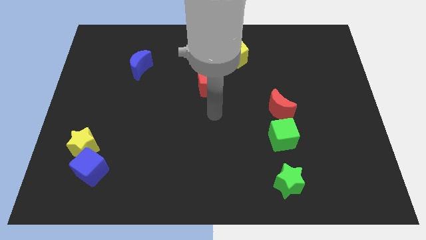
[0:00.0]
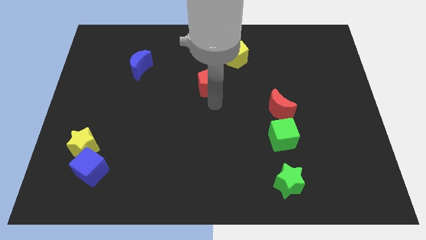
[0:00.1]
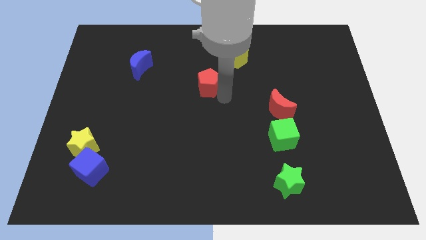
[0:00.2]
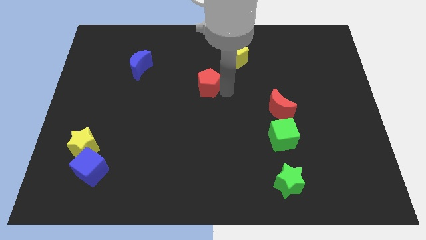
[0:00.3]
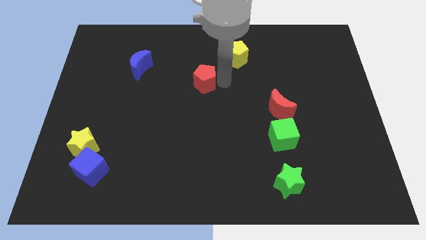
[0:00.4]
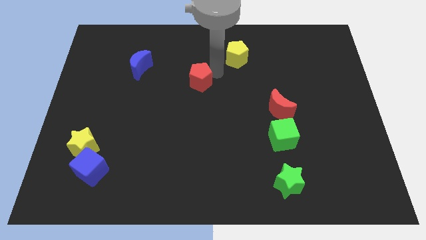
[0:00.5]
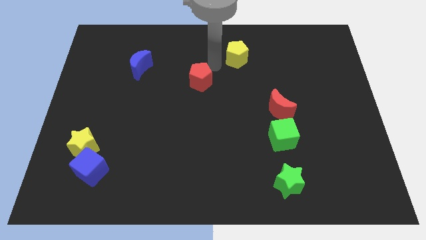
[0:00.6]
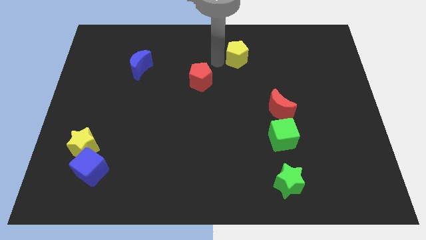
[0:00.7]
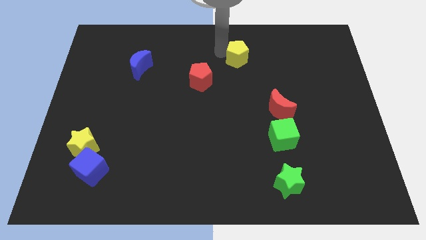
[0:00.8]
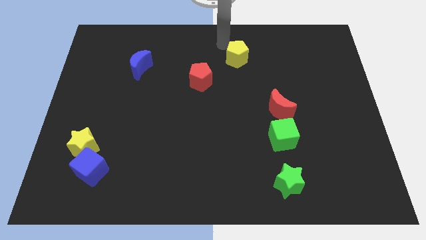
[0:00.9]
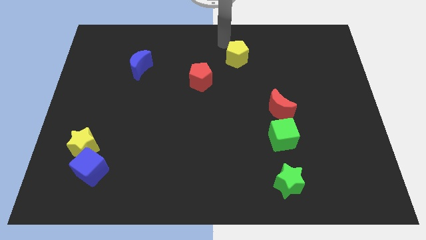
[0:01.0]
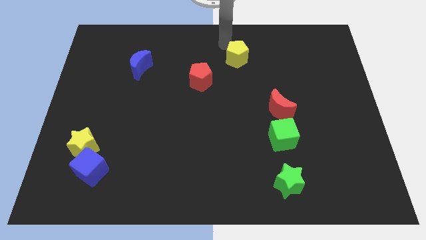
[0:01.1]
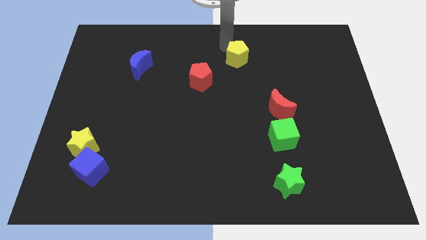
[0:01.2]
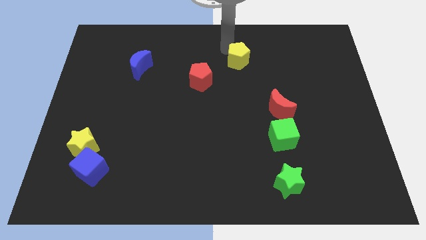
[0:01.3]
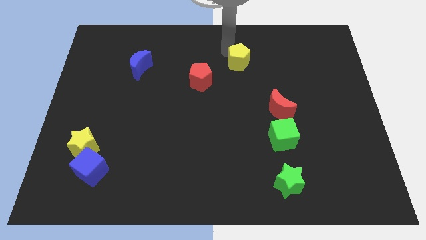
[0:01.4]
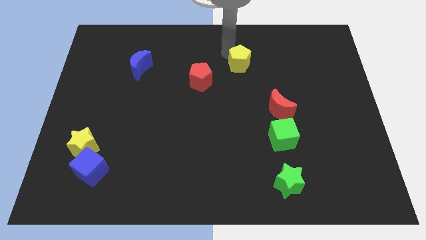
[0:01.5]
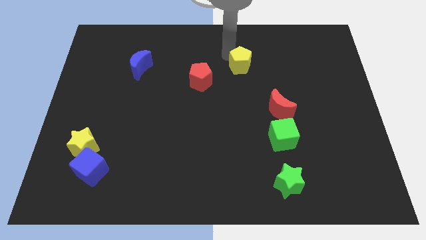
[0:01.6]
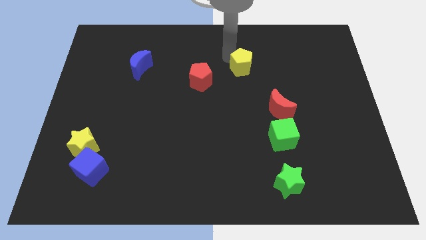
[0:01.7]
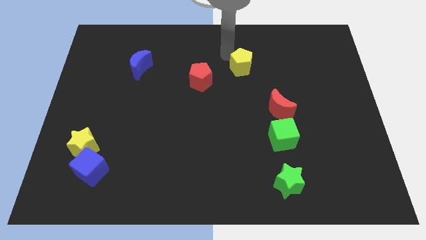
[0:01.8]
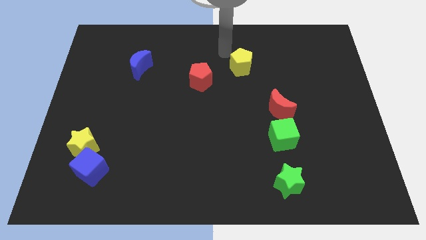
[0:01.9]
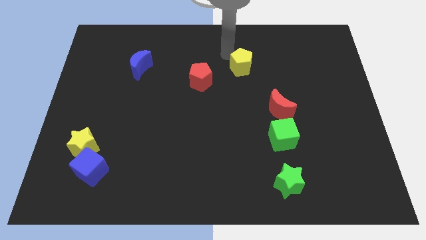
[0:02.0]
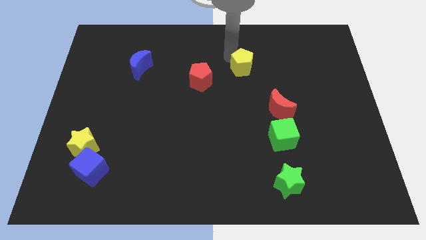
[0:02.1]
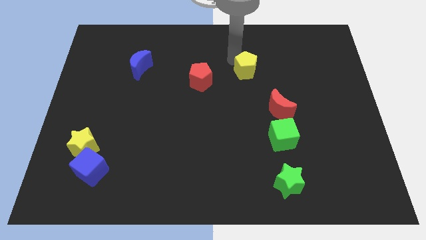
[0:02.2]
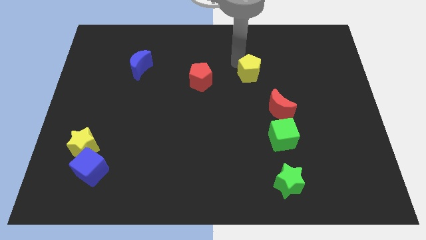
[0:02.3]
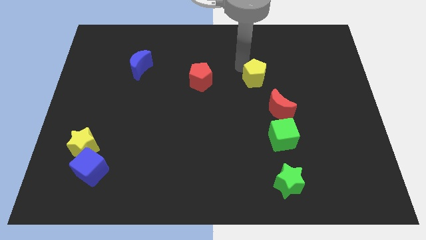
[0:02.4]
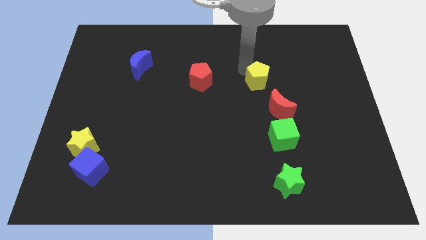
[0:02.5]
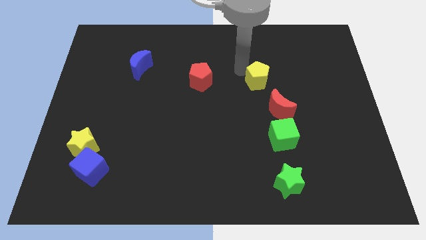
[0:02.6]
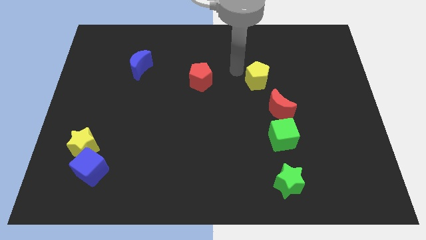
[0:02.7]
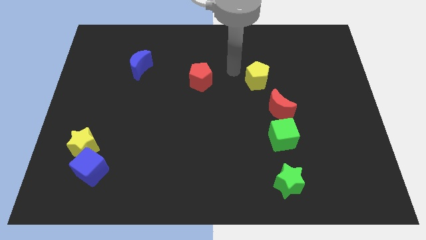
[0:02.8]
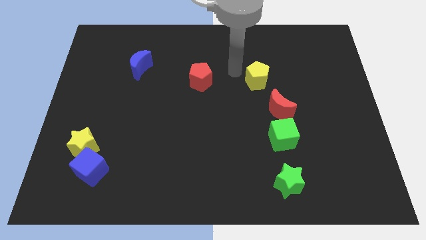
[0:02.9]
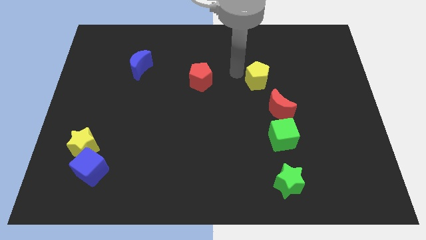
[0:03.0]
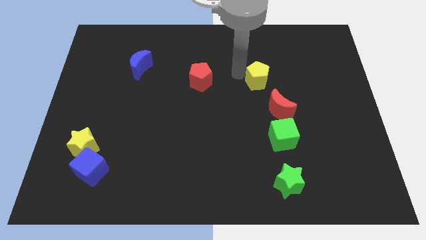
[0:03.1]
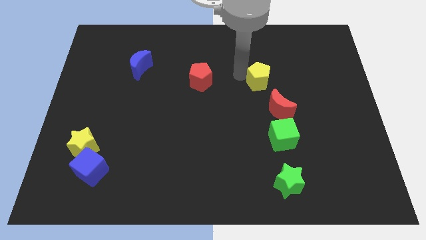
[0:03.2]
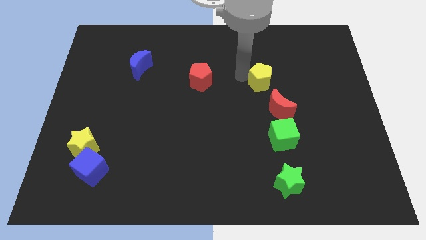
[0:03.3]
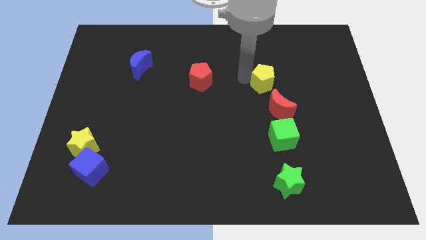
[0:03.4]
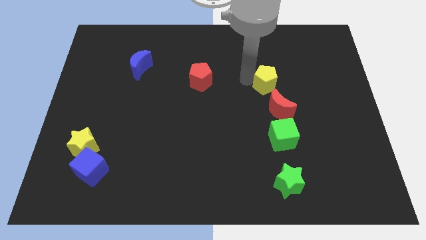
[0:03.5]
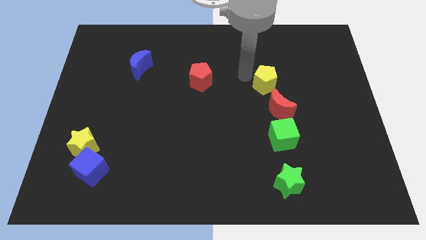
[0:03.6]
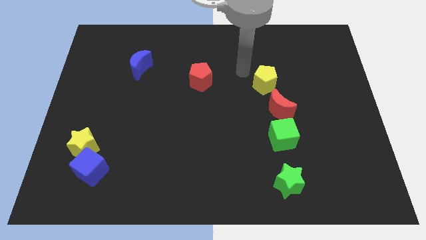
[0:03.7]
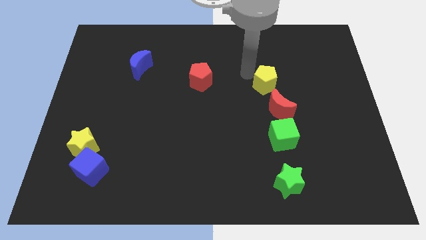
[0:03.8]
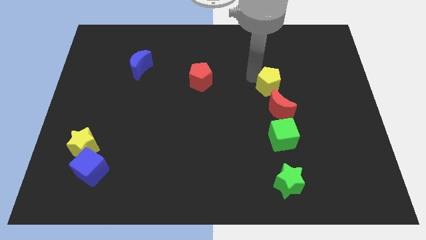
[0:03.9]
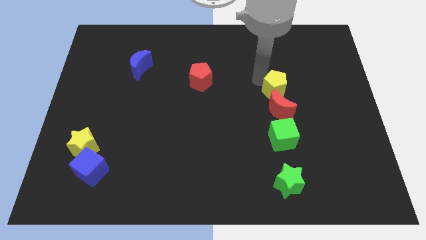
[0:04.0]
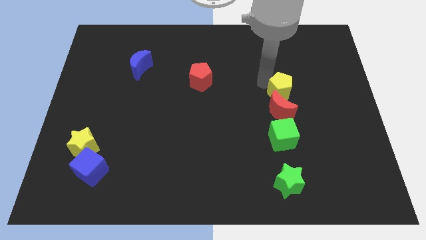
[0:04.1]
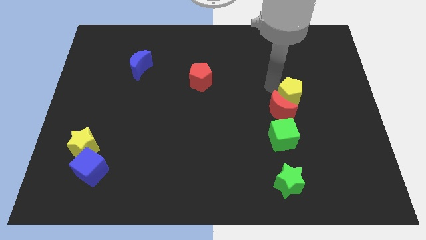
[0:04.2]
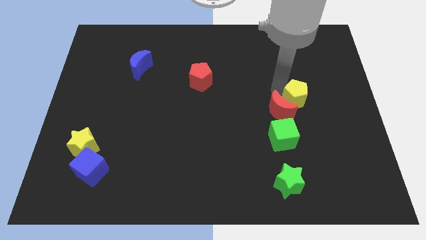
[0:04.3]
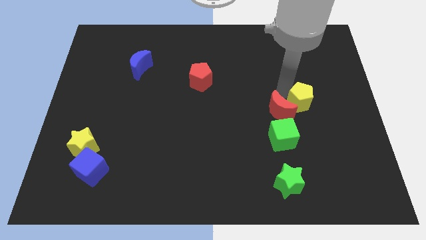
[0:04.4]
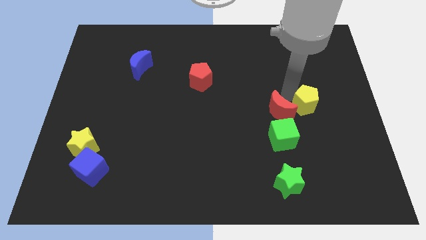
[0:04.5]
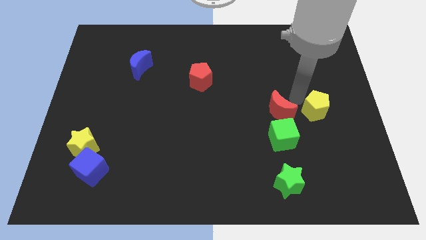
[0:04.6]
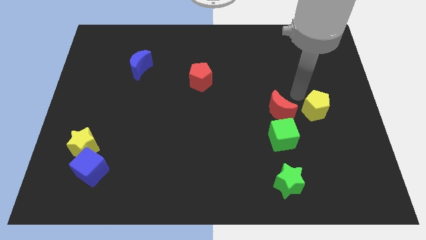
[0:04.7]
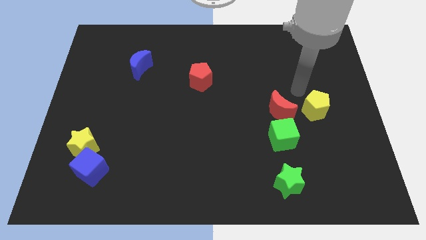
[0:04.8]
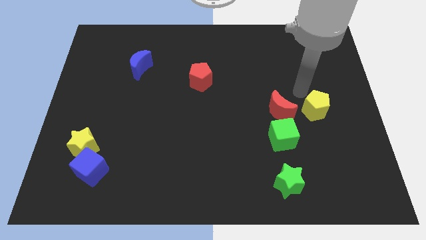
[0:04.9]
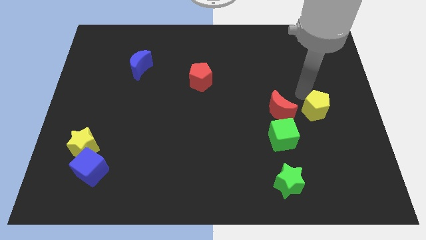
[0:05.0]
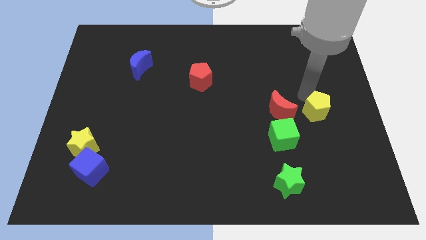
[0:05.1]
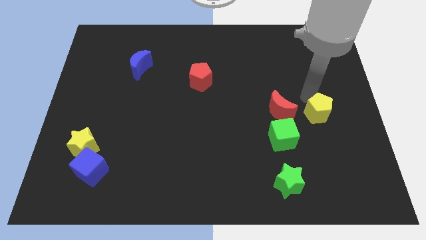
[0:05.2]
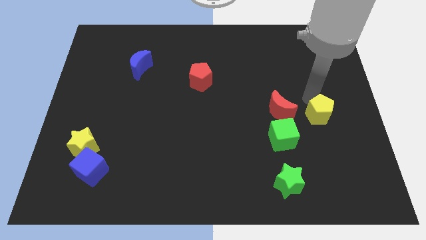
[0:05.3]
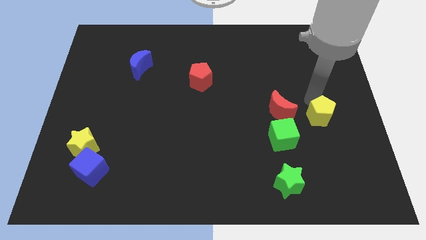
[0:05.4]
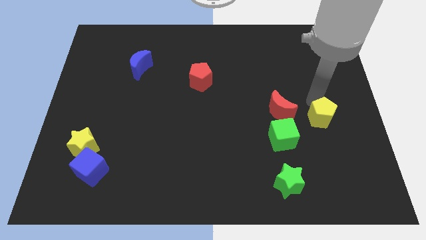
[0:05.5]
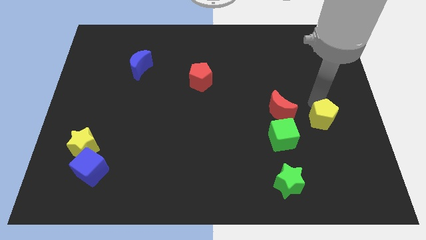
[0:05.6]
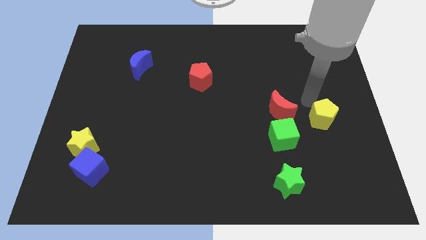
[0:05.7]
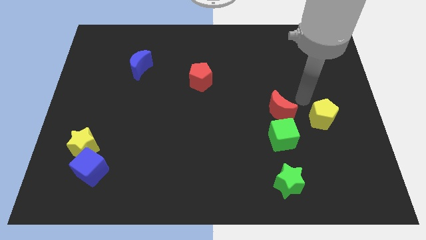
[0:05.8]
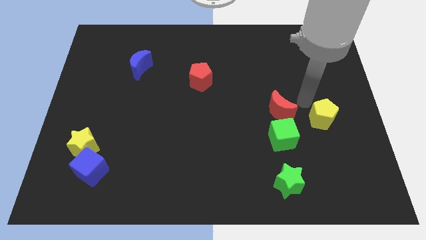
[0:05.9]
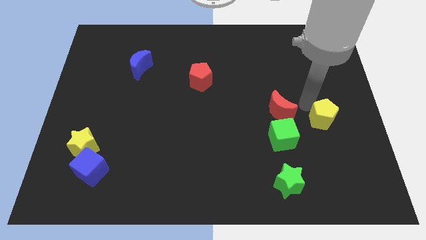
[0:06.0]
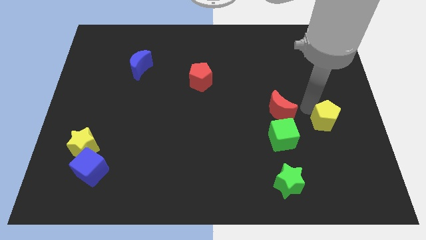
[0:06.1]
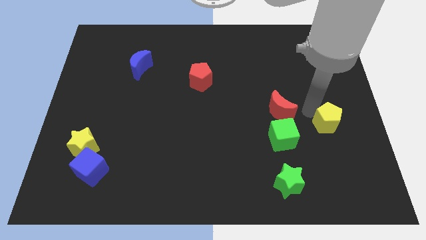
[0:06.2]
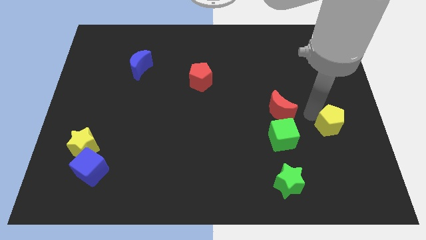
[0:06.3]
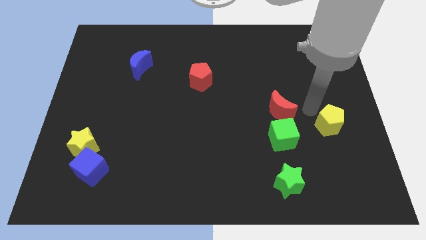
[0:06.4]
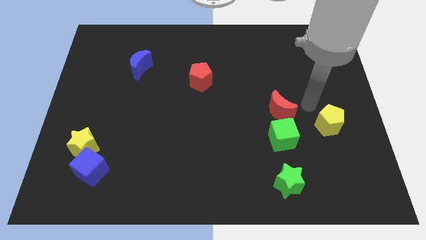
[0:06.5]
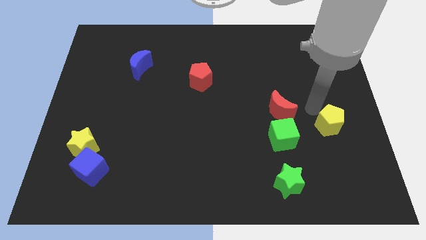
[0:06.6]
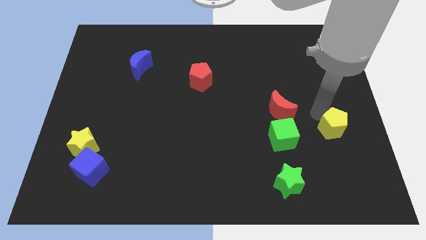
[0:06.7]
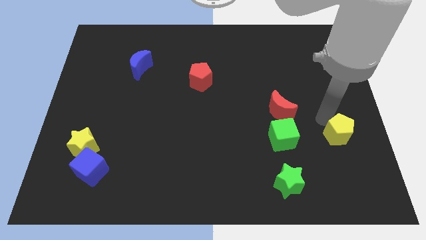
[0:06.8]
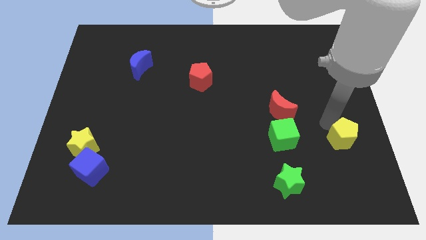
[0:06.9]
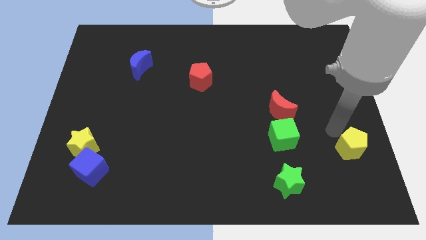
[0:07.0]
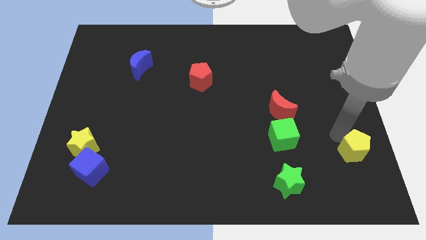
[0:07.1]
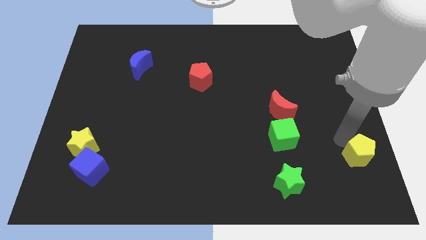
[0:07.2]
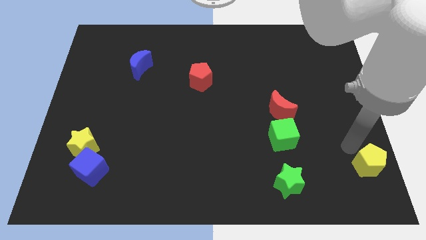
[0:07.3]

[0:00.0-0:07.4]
push the yellow pentagon to the bottom right of the board

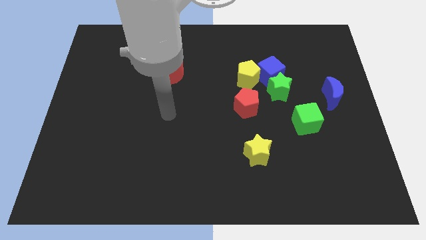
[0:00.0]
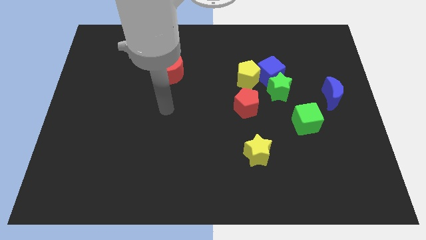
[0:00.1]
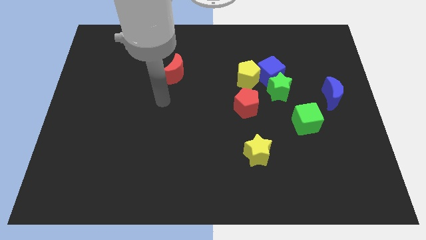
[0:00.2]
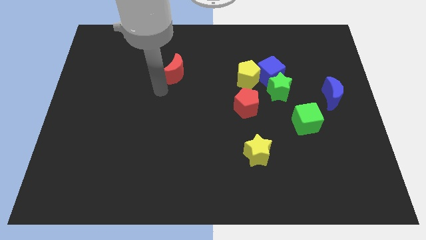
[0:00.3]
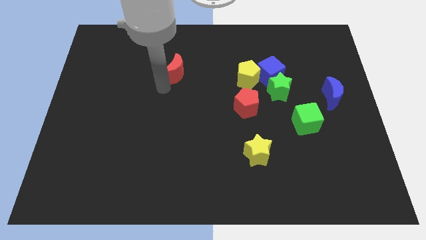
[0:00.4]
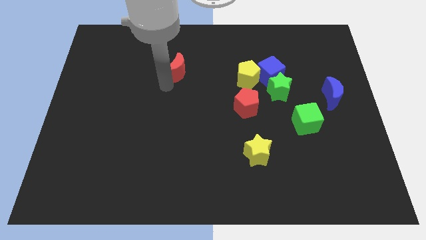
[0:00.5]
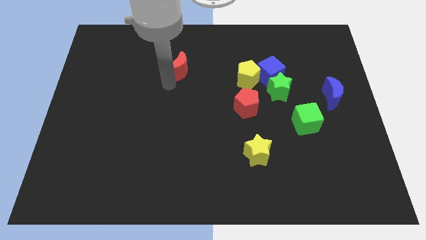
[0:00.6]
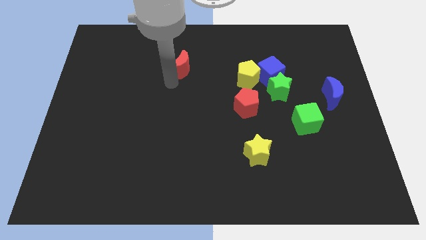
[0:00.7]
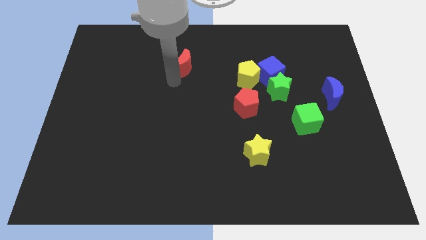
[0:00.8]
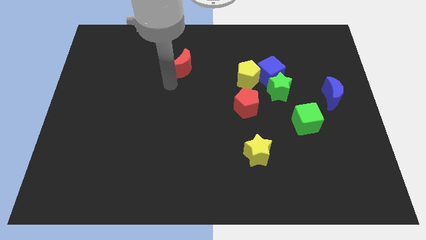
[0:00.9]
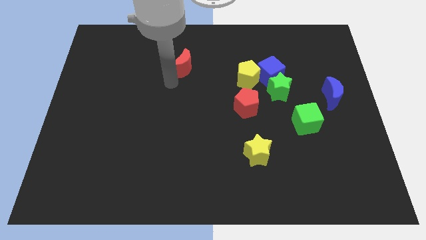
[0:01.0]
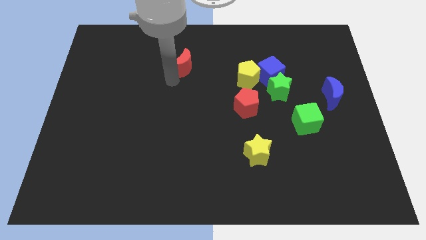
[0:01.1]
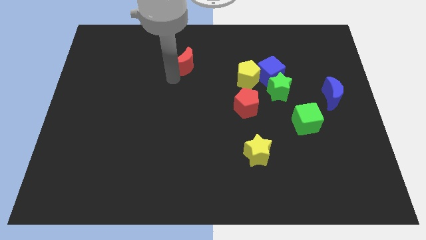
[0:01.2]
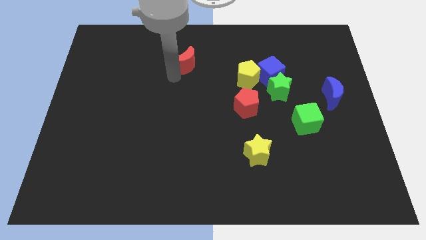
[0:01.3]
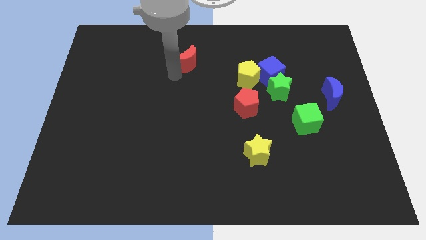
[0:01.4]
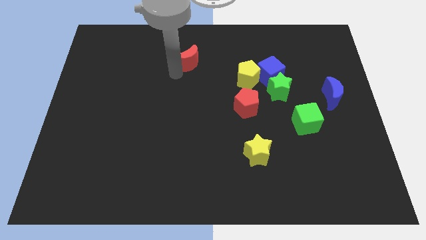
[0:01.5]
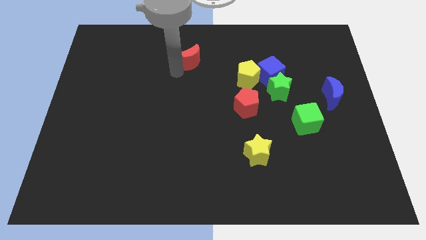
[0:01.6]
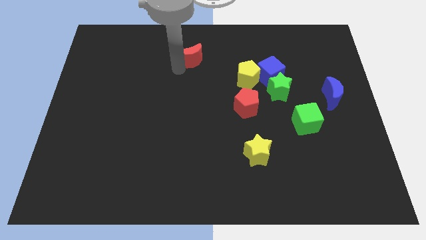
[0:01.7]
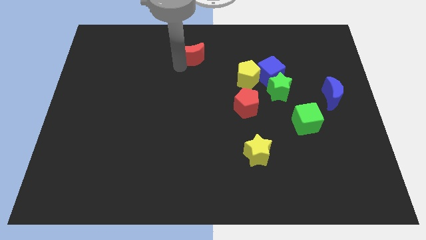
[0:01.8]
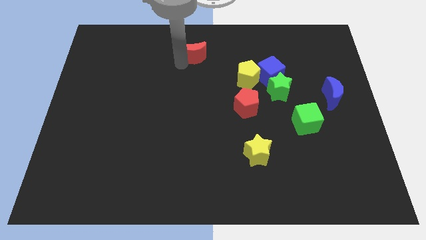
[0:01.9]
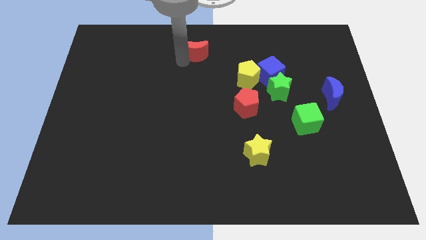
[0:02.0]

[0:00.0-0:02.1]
push the red moon to the towards your base
